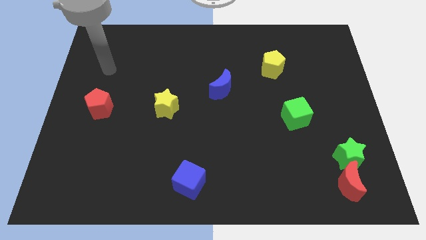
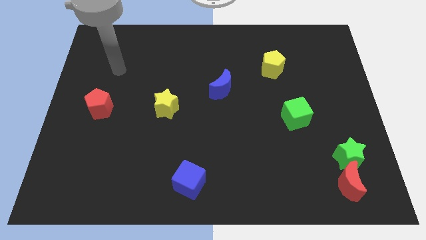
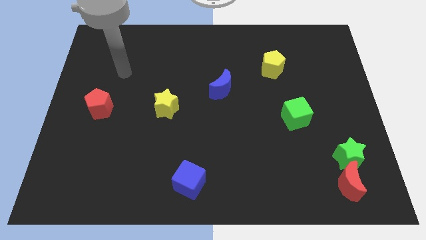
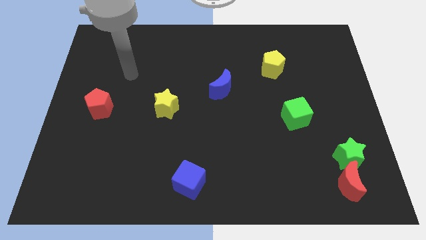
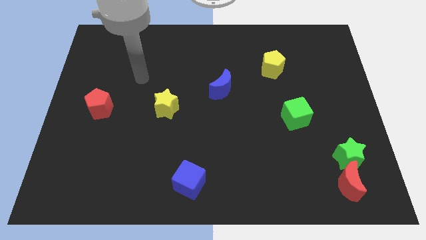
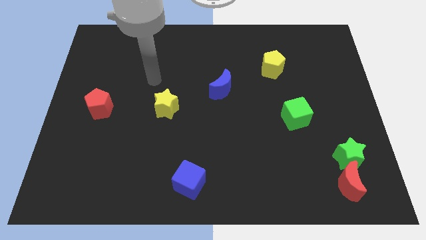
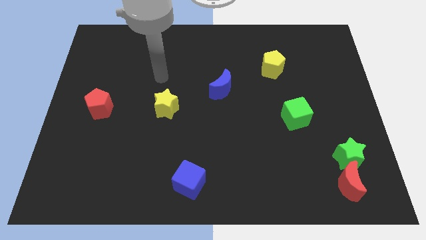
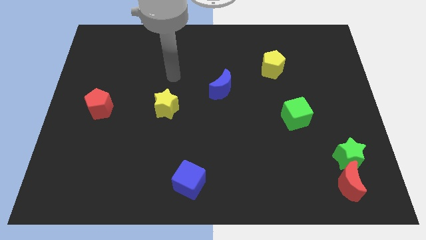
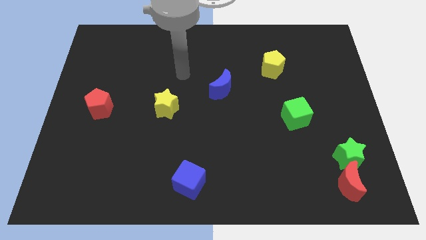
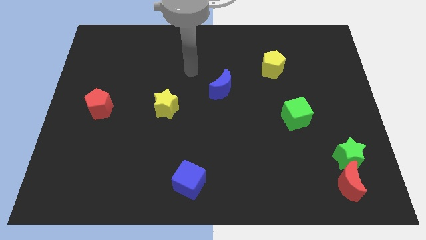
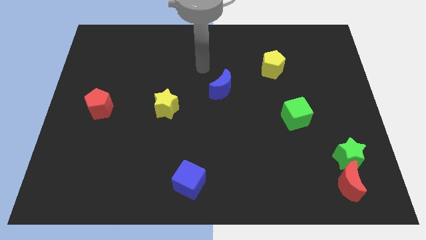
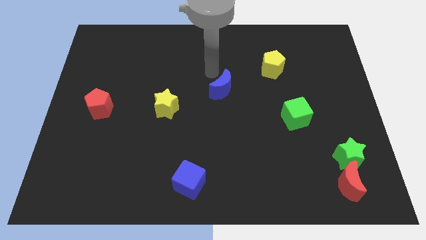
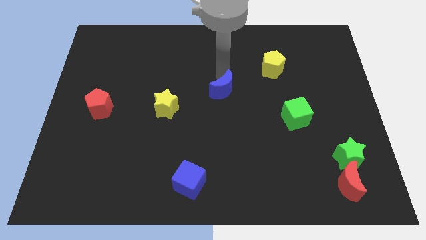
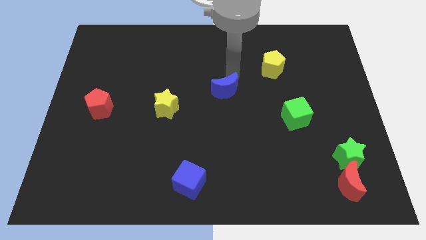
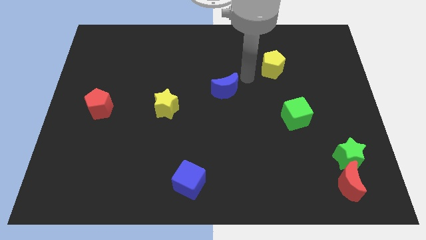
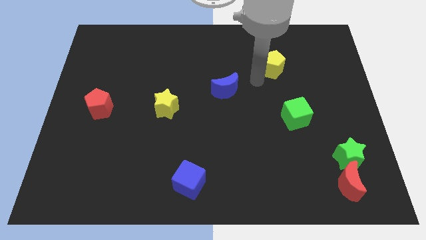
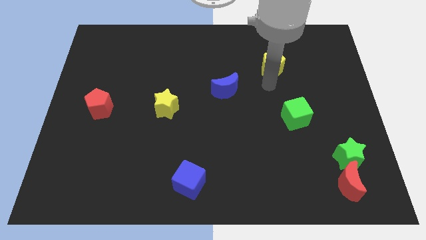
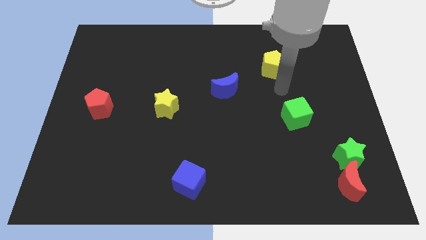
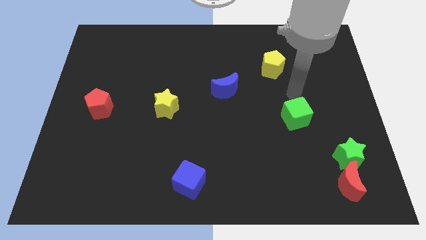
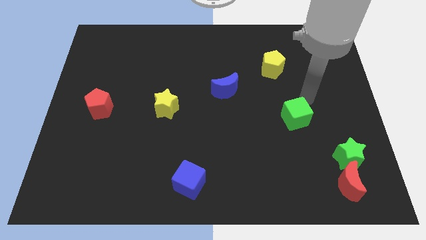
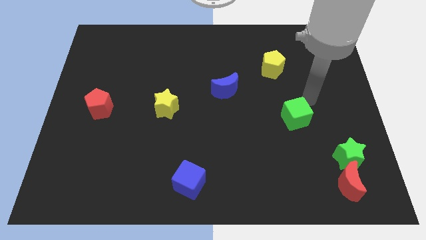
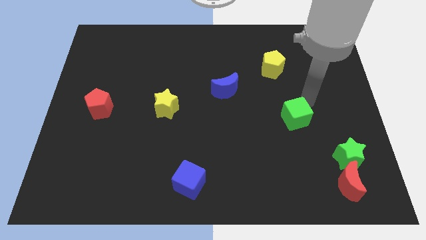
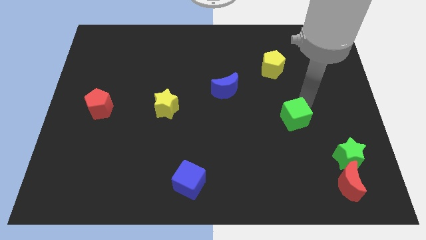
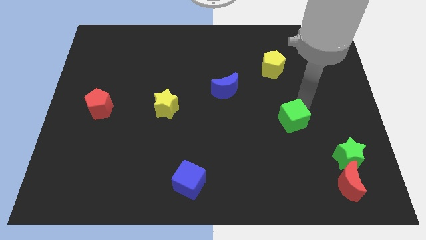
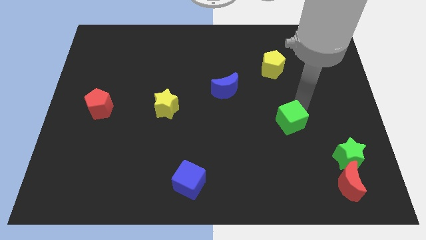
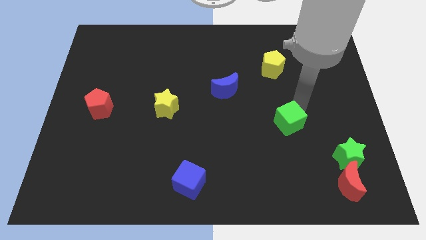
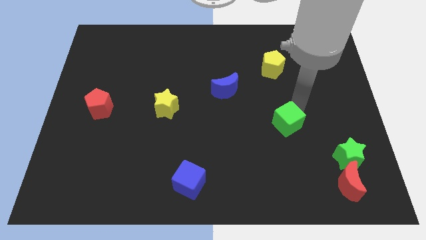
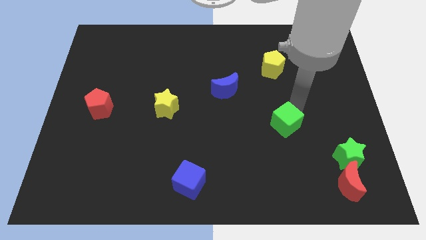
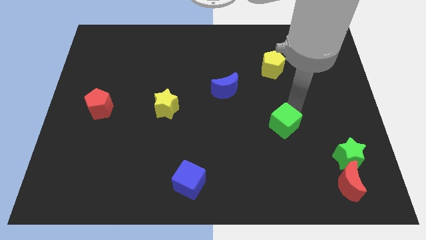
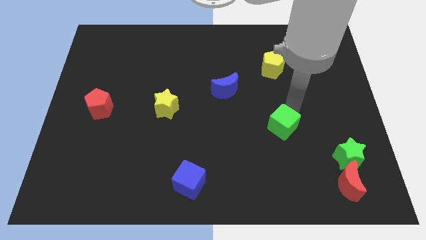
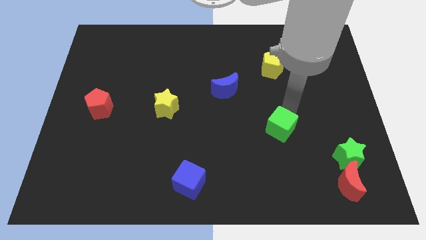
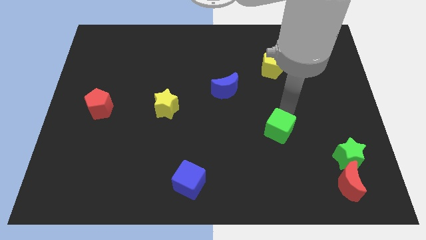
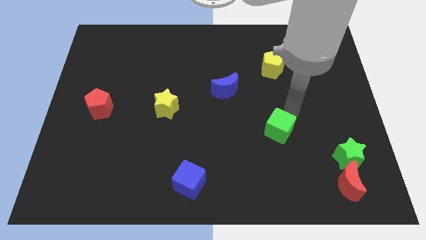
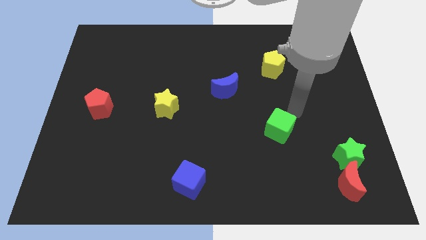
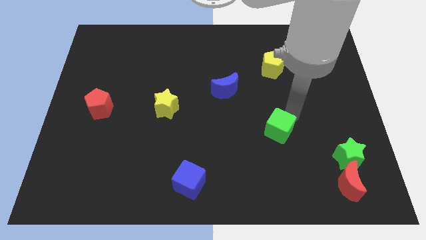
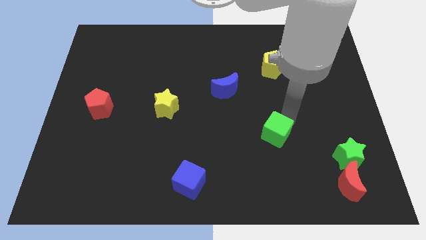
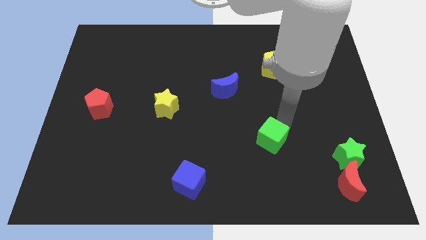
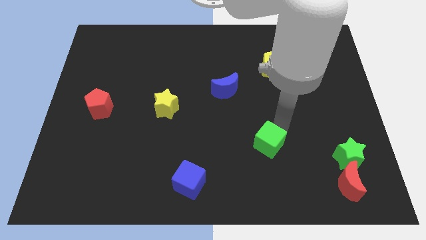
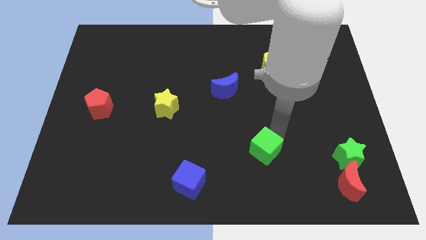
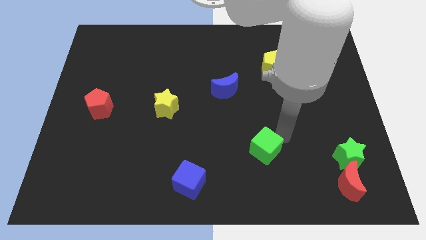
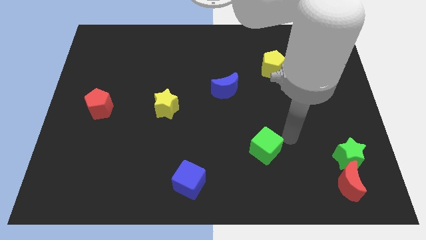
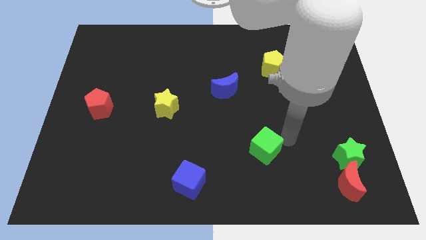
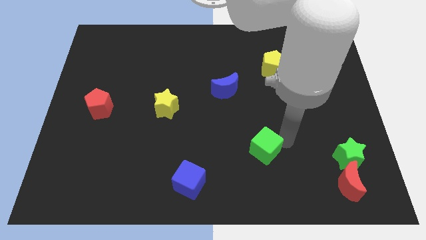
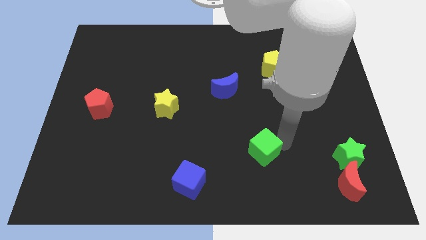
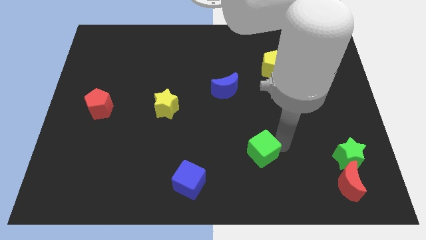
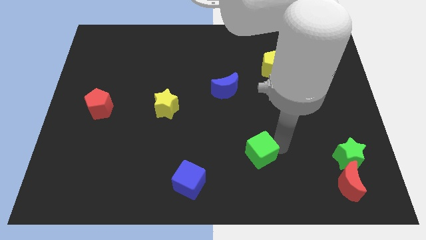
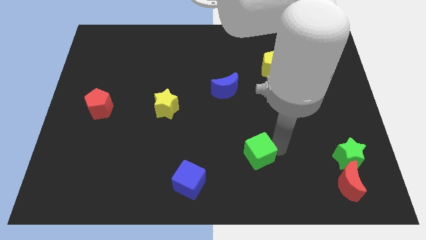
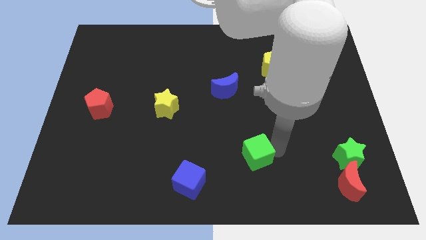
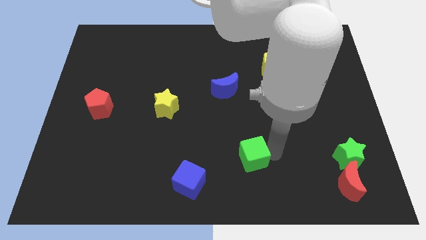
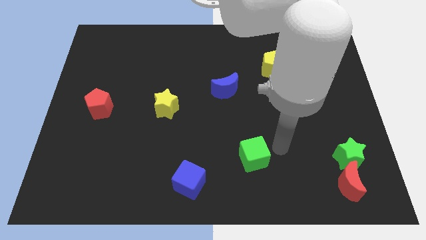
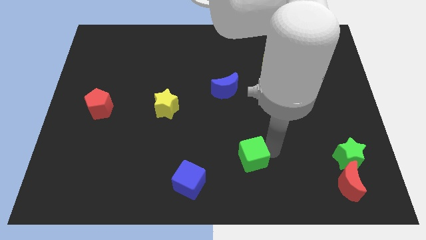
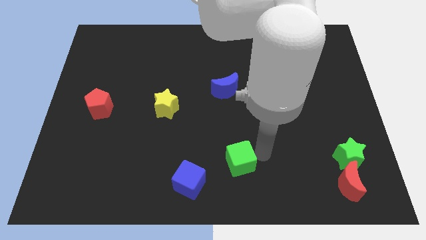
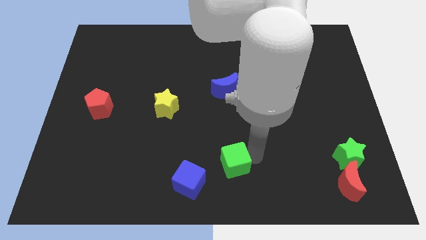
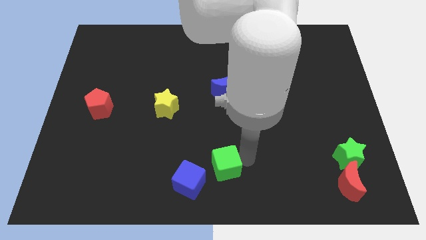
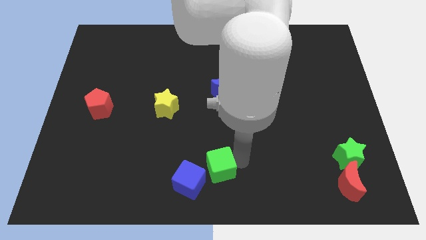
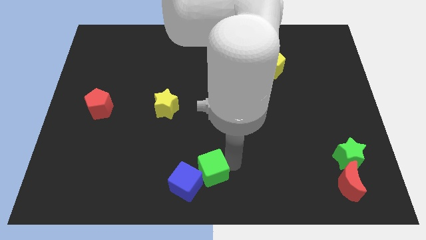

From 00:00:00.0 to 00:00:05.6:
push the green cube next to the blue cube
